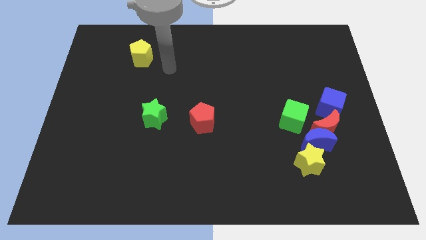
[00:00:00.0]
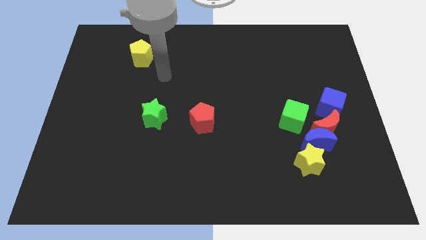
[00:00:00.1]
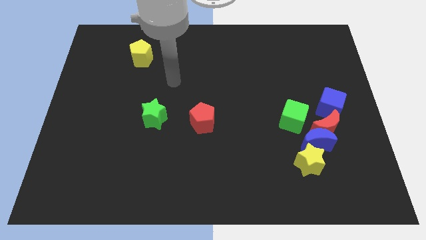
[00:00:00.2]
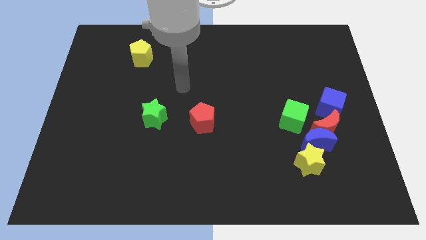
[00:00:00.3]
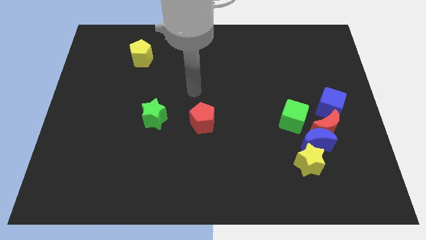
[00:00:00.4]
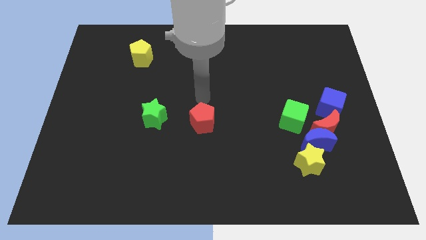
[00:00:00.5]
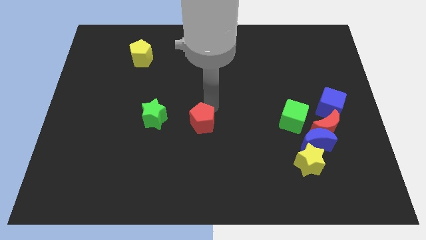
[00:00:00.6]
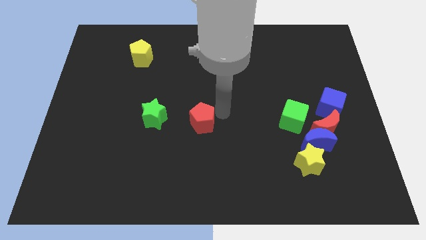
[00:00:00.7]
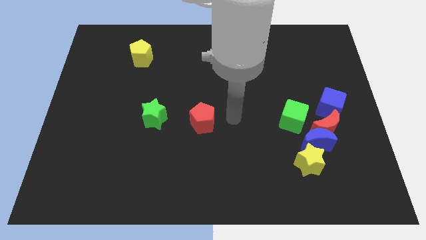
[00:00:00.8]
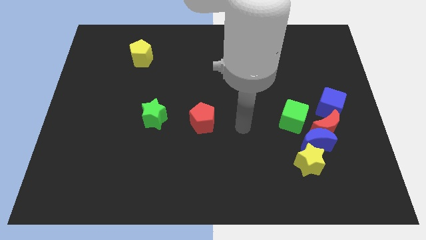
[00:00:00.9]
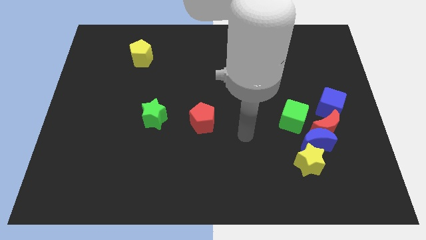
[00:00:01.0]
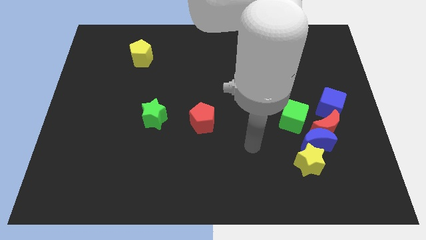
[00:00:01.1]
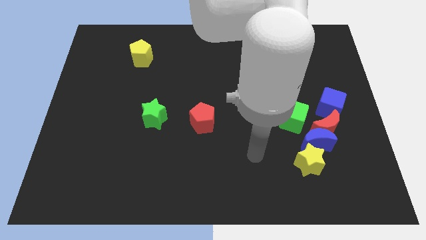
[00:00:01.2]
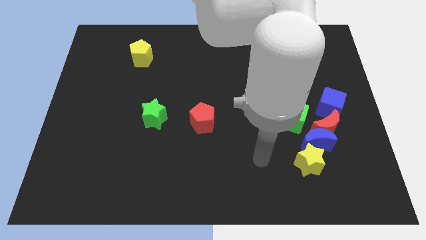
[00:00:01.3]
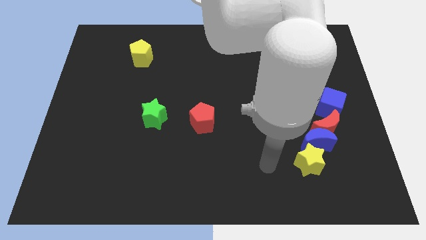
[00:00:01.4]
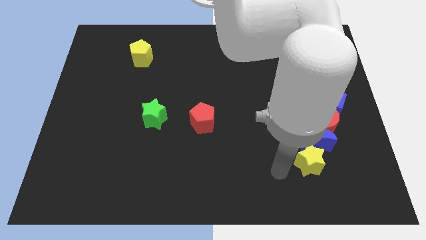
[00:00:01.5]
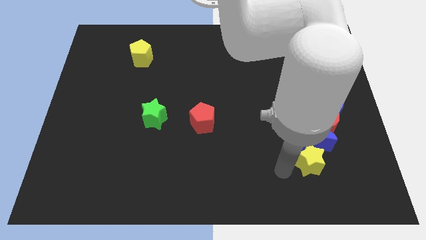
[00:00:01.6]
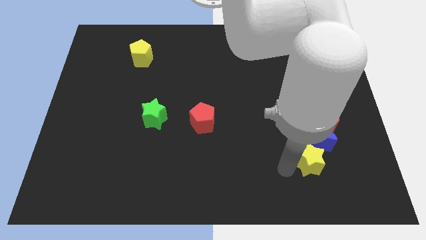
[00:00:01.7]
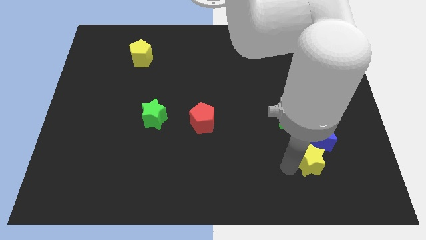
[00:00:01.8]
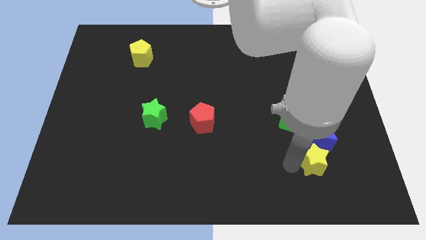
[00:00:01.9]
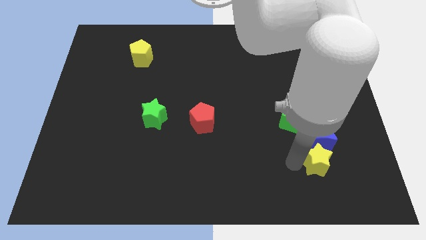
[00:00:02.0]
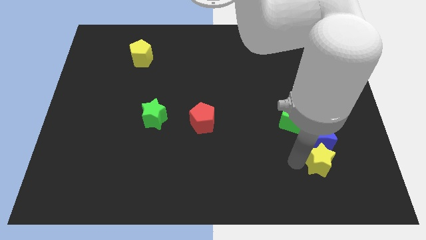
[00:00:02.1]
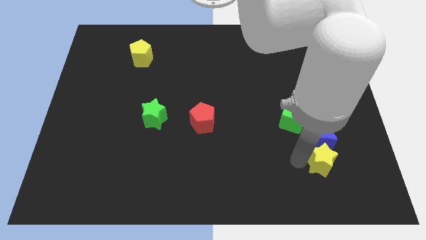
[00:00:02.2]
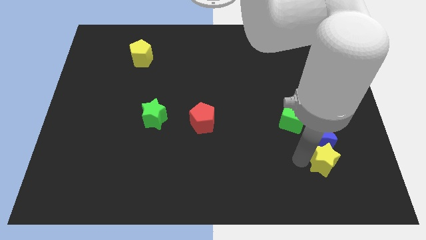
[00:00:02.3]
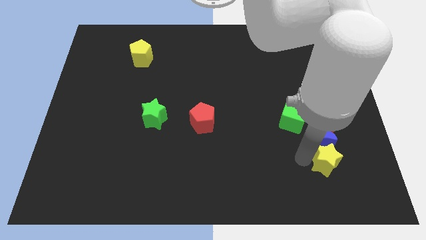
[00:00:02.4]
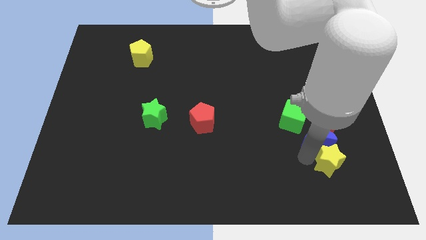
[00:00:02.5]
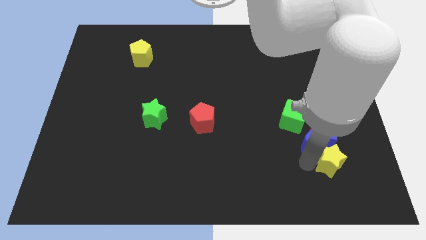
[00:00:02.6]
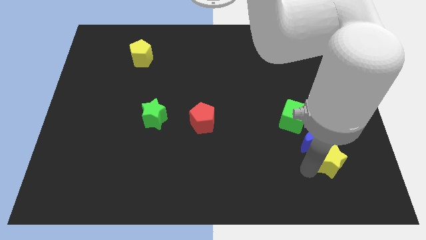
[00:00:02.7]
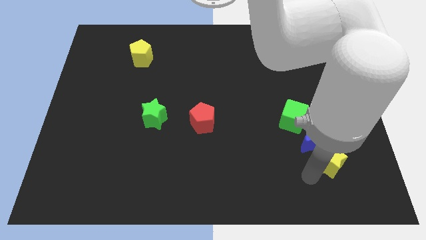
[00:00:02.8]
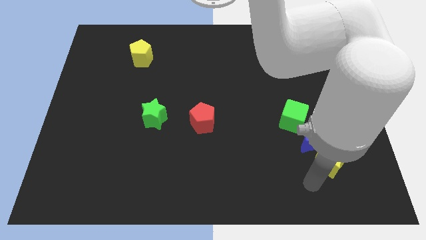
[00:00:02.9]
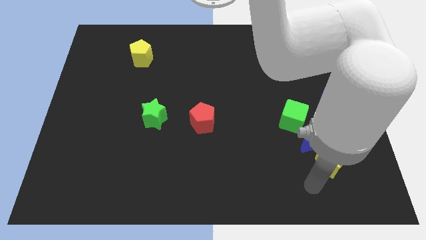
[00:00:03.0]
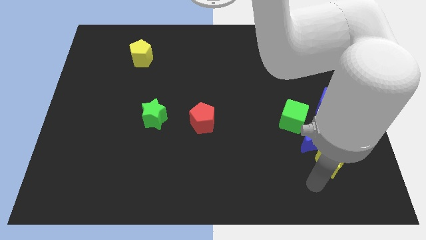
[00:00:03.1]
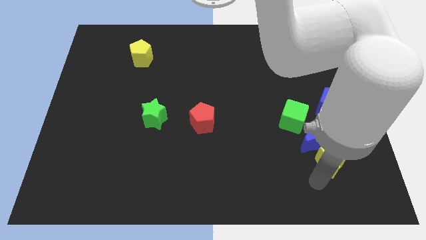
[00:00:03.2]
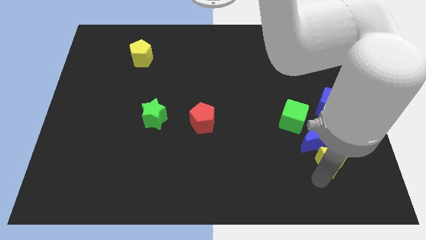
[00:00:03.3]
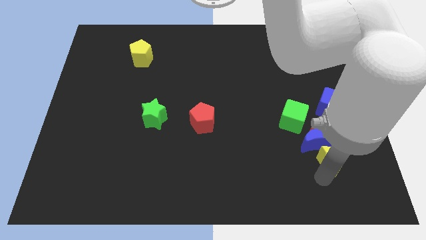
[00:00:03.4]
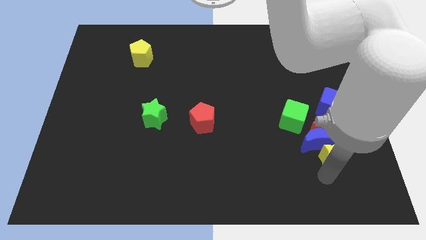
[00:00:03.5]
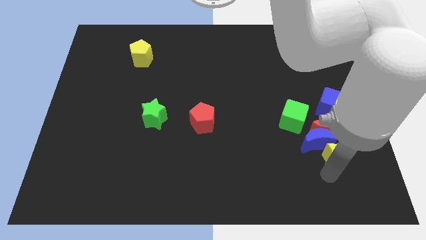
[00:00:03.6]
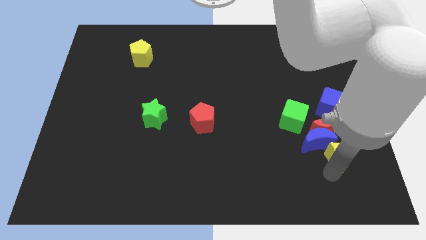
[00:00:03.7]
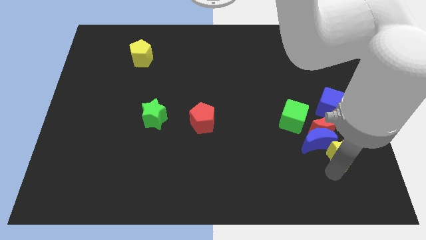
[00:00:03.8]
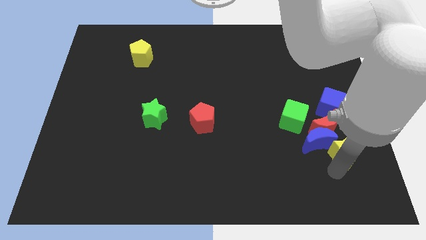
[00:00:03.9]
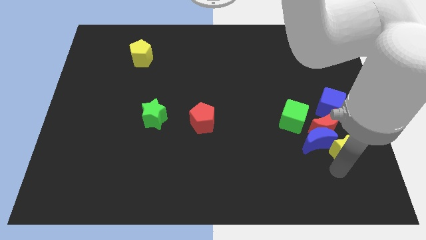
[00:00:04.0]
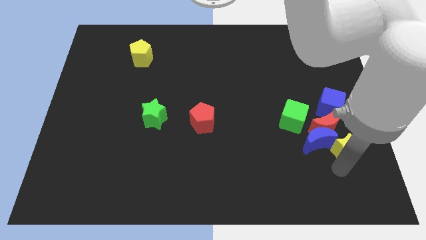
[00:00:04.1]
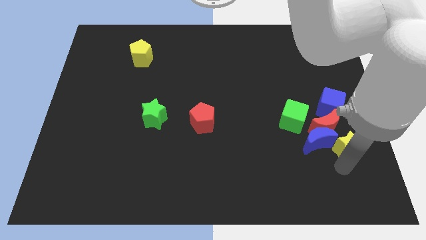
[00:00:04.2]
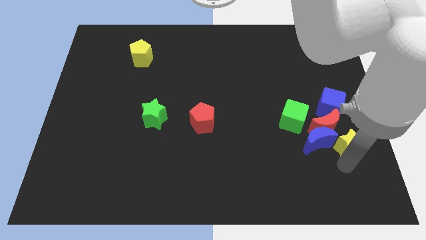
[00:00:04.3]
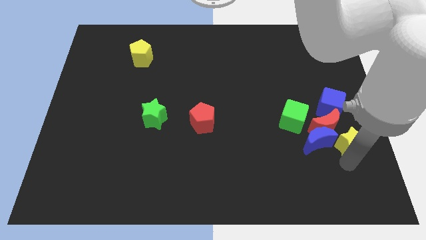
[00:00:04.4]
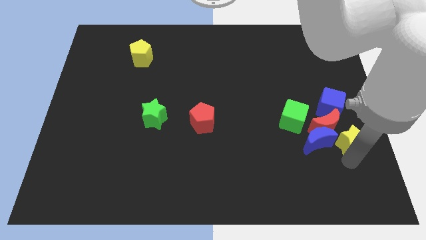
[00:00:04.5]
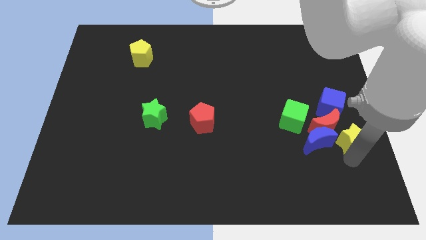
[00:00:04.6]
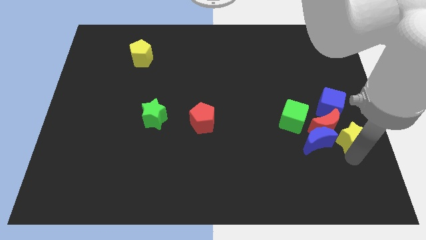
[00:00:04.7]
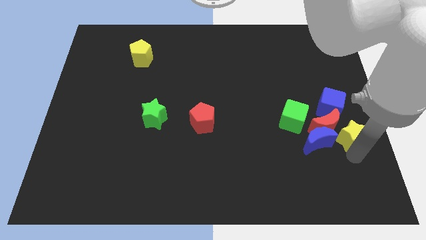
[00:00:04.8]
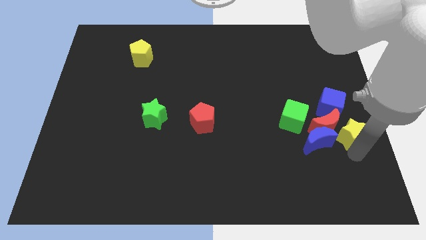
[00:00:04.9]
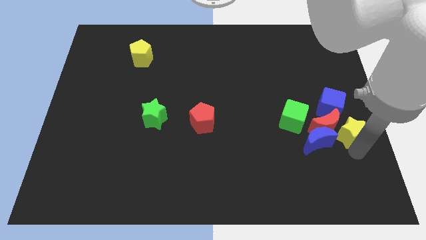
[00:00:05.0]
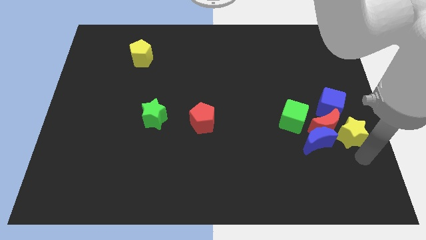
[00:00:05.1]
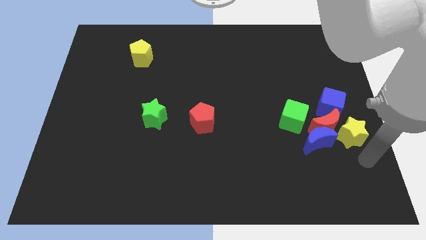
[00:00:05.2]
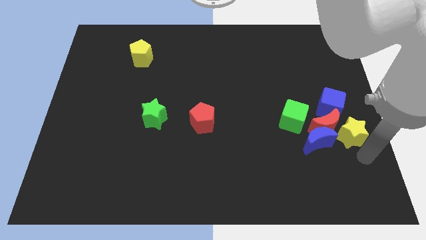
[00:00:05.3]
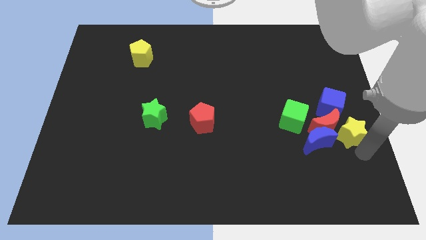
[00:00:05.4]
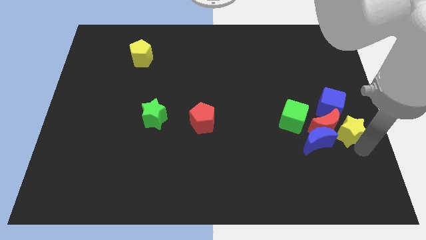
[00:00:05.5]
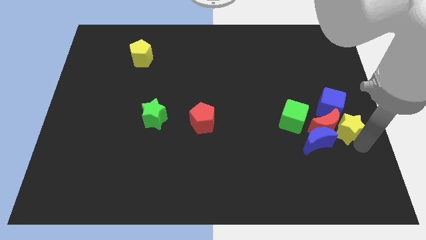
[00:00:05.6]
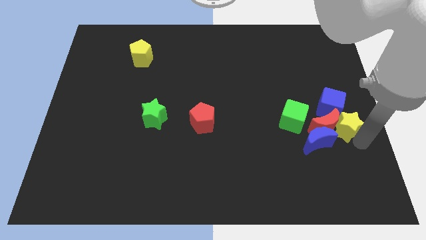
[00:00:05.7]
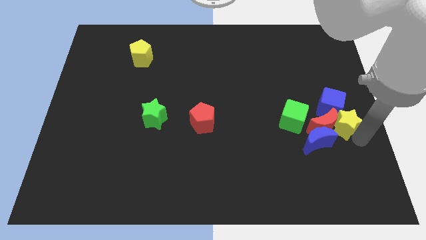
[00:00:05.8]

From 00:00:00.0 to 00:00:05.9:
put the yellow star next to the blue cube

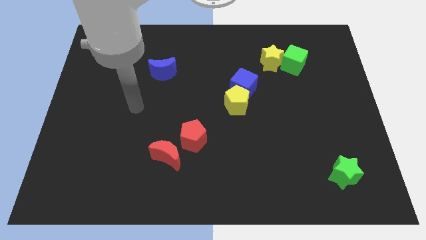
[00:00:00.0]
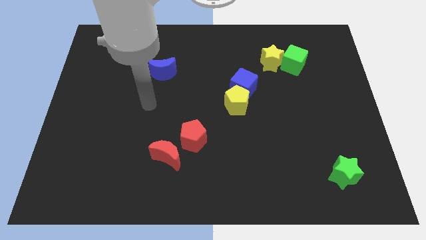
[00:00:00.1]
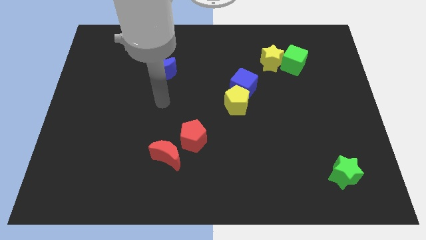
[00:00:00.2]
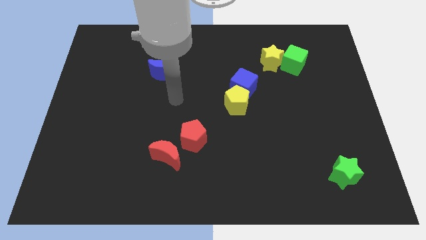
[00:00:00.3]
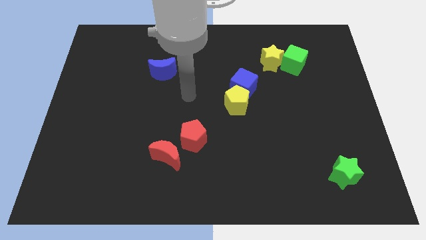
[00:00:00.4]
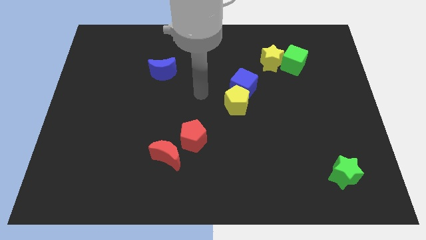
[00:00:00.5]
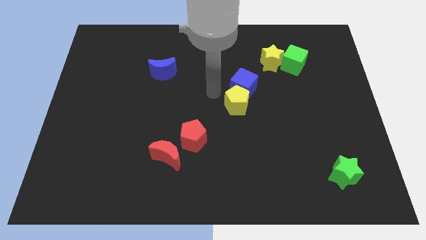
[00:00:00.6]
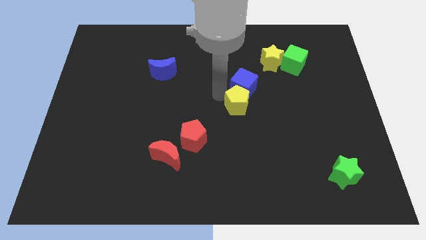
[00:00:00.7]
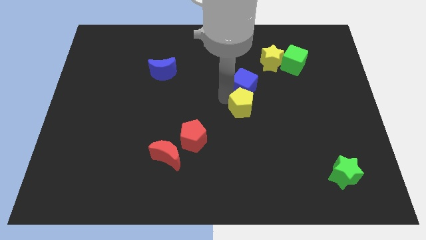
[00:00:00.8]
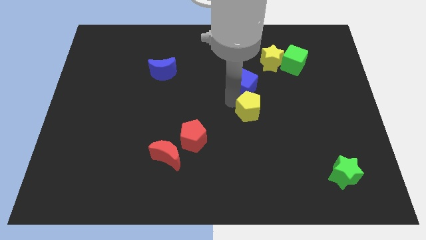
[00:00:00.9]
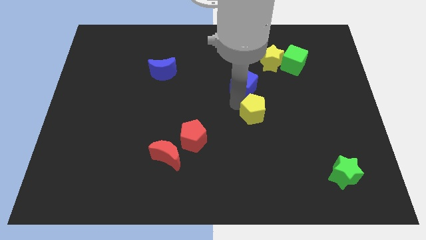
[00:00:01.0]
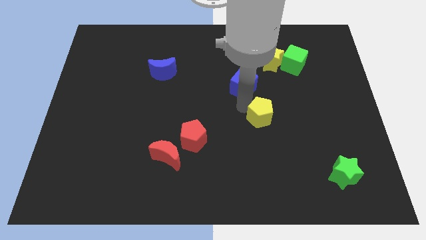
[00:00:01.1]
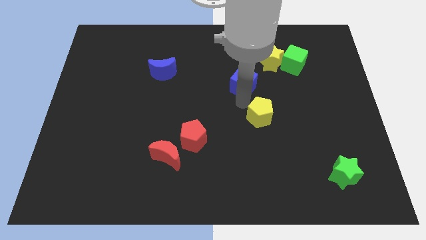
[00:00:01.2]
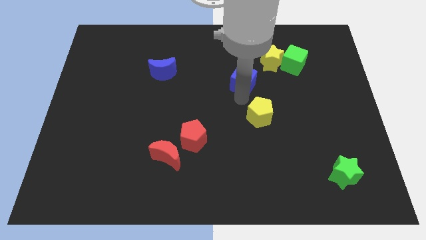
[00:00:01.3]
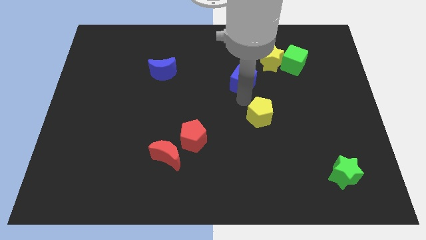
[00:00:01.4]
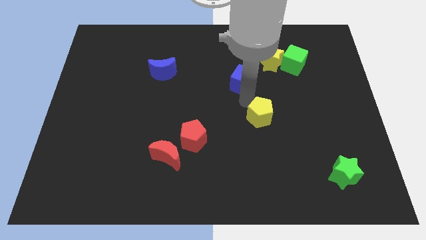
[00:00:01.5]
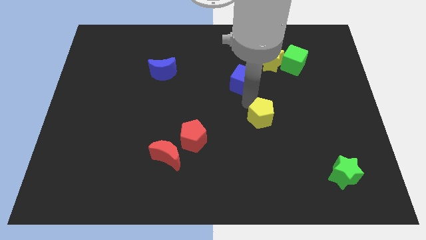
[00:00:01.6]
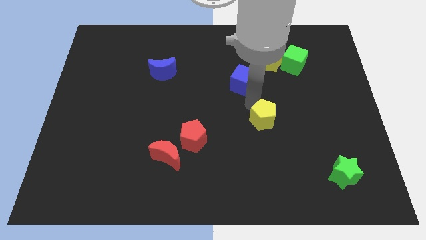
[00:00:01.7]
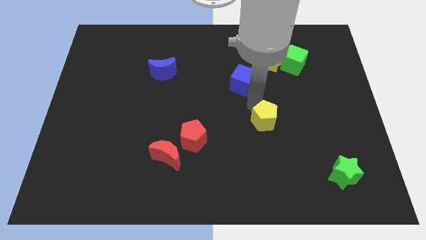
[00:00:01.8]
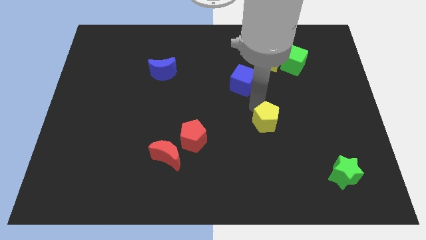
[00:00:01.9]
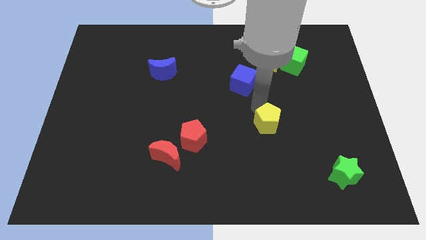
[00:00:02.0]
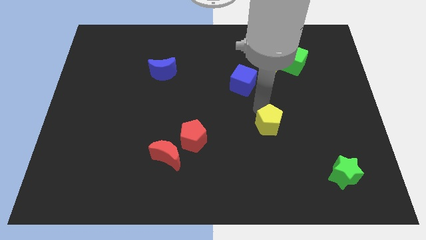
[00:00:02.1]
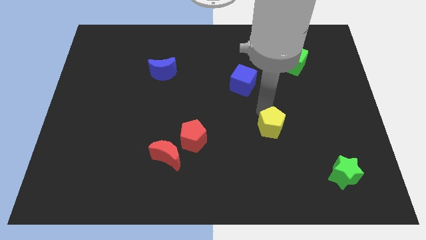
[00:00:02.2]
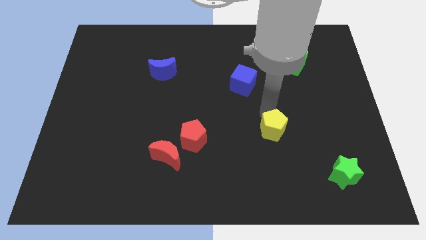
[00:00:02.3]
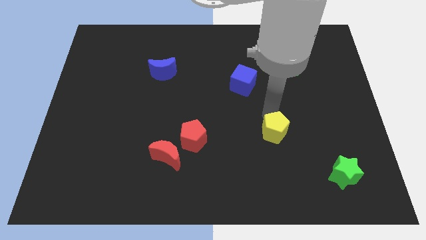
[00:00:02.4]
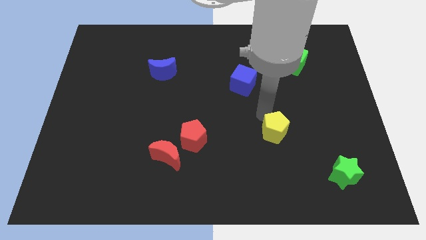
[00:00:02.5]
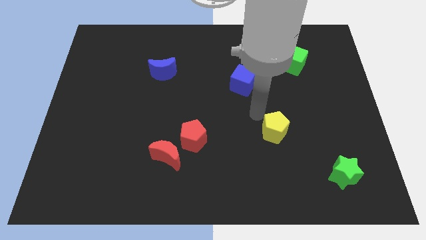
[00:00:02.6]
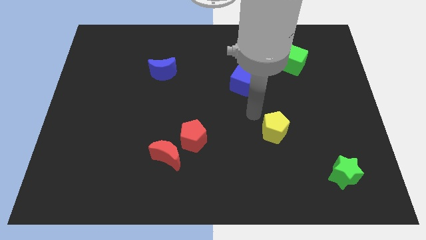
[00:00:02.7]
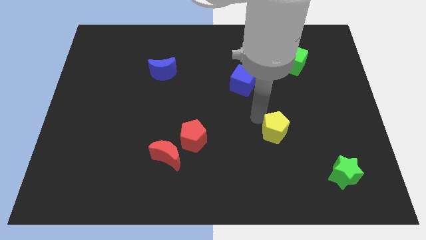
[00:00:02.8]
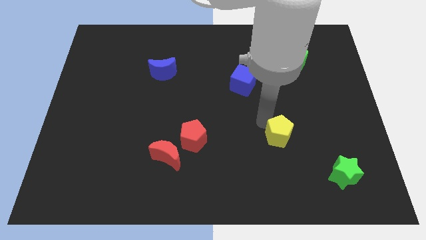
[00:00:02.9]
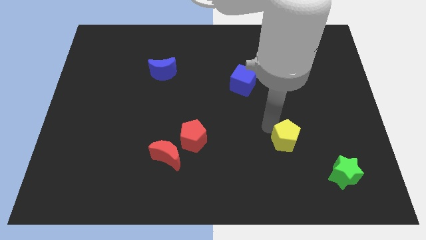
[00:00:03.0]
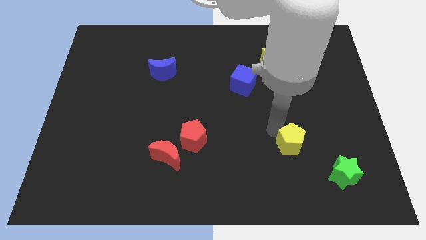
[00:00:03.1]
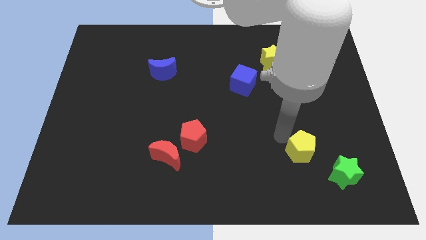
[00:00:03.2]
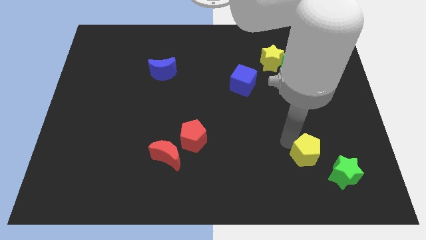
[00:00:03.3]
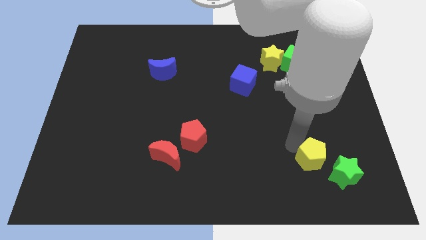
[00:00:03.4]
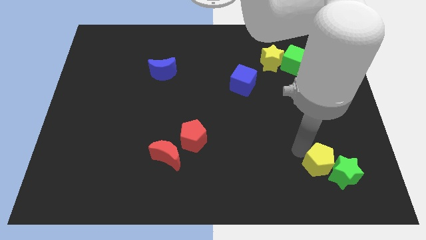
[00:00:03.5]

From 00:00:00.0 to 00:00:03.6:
slide the yellow pentagon towards the green star
